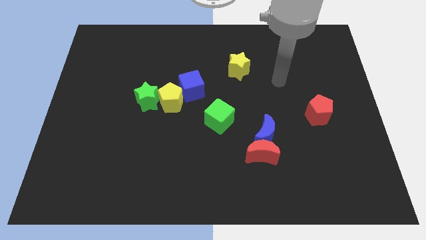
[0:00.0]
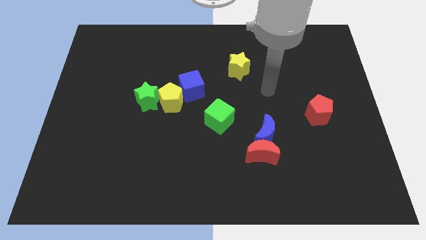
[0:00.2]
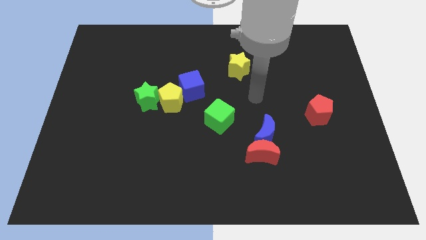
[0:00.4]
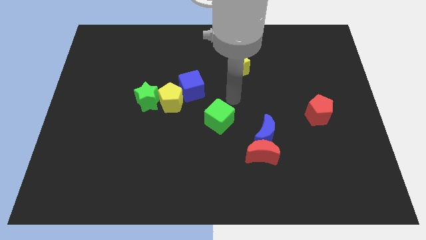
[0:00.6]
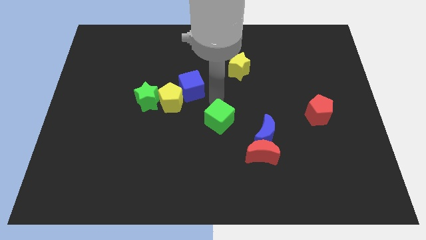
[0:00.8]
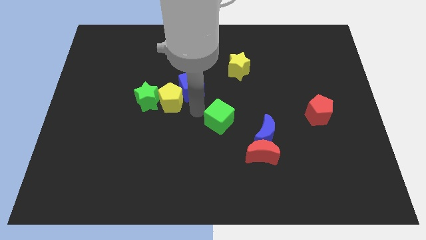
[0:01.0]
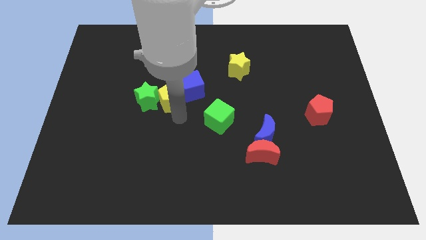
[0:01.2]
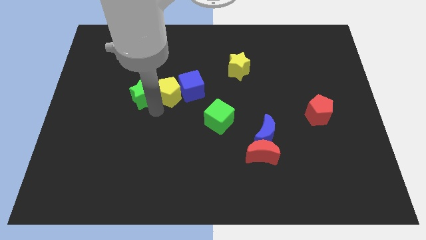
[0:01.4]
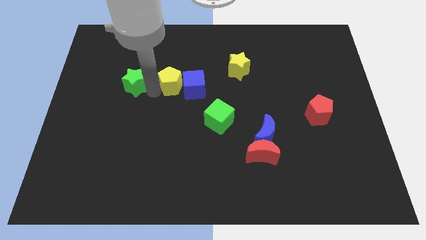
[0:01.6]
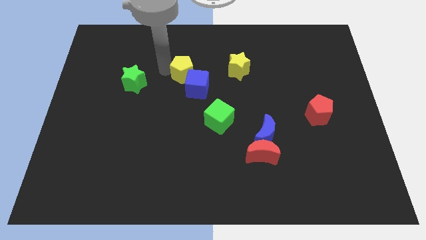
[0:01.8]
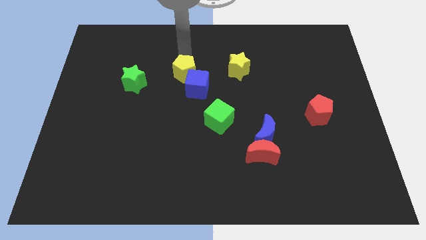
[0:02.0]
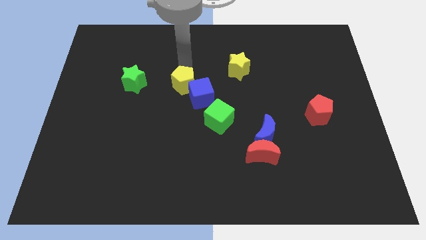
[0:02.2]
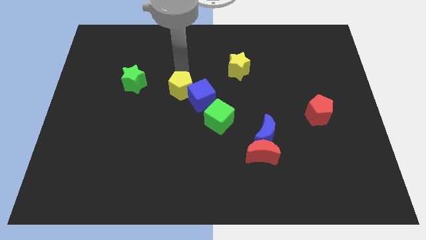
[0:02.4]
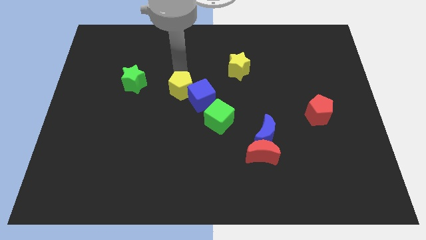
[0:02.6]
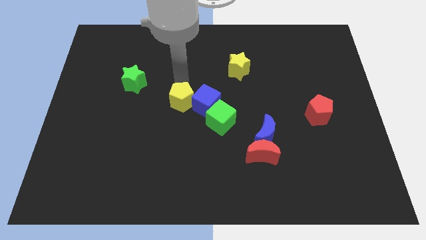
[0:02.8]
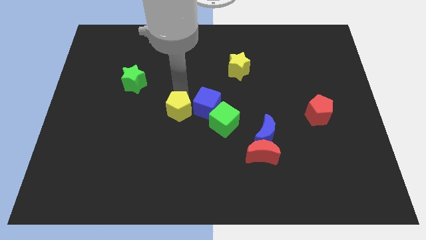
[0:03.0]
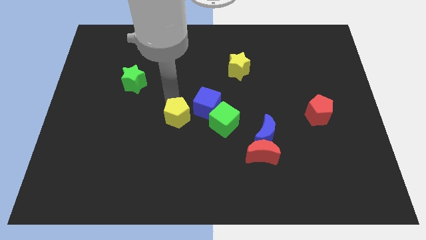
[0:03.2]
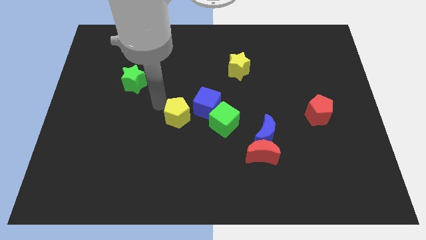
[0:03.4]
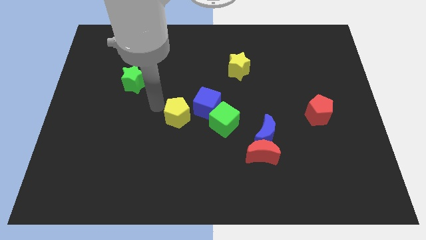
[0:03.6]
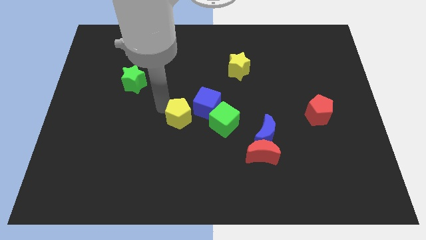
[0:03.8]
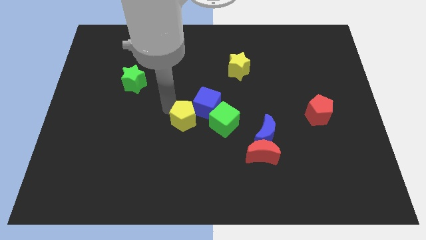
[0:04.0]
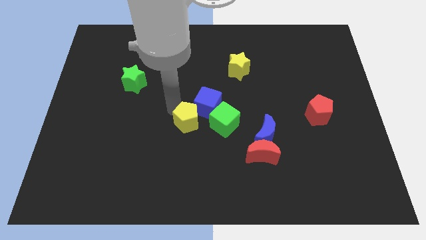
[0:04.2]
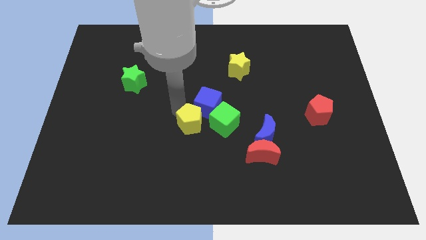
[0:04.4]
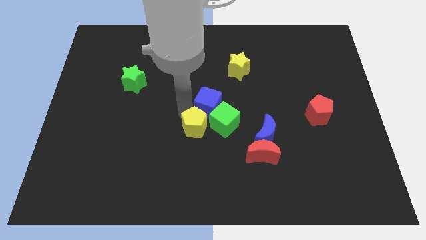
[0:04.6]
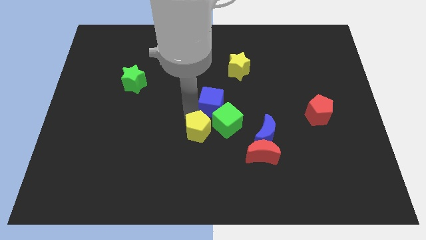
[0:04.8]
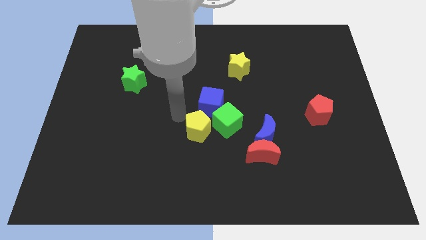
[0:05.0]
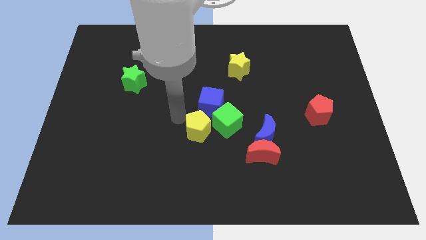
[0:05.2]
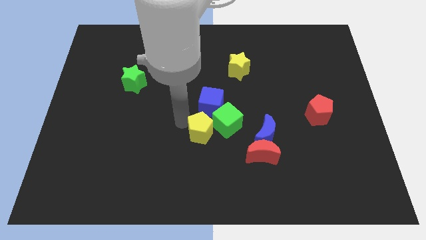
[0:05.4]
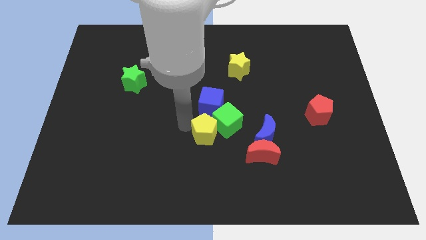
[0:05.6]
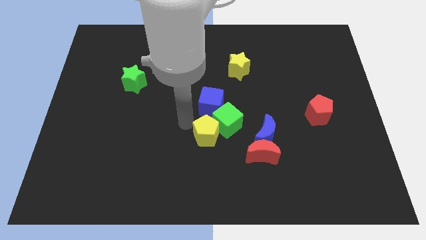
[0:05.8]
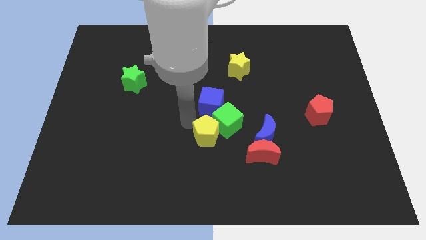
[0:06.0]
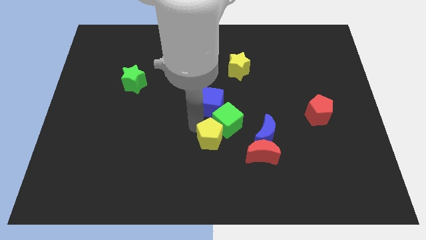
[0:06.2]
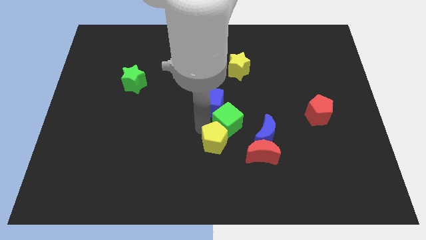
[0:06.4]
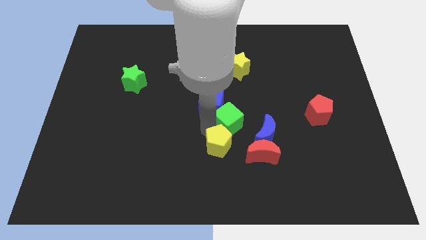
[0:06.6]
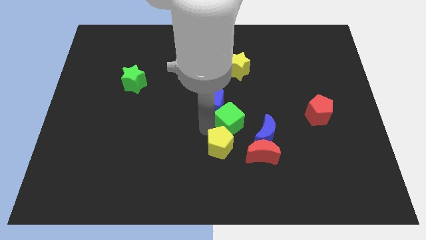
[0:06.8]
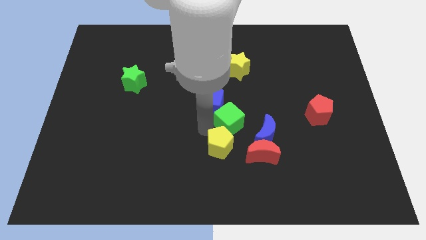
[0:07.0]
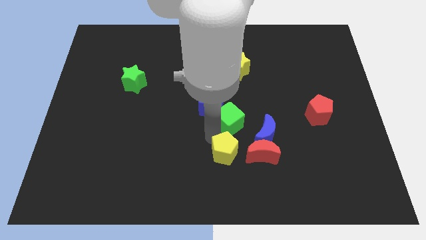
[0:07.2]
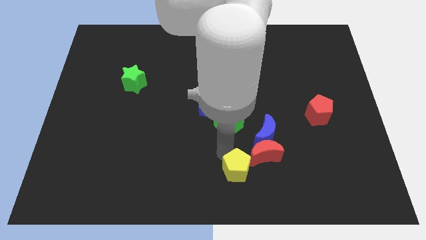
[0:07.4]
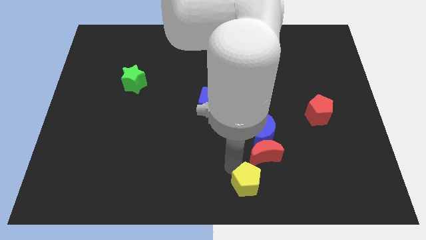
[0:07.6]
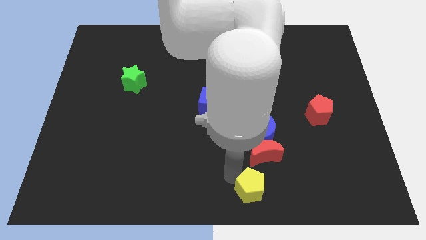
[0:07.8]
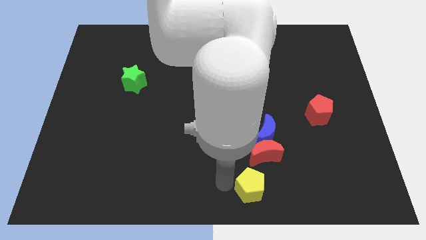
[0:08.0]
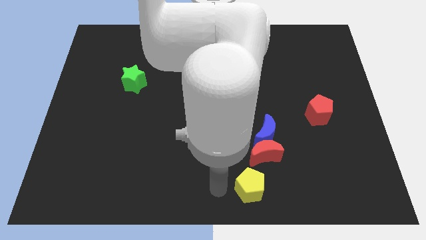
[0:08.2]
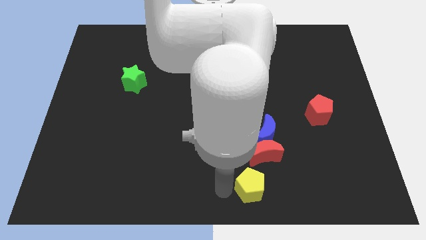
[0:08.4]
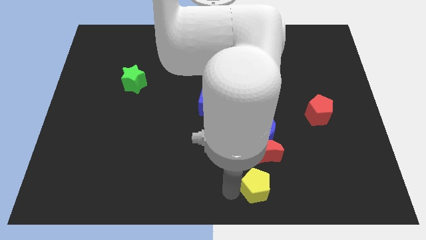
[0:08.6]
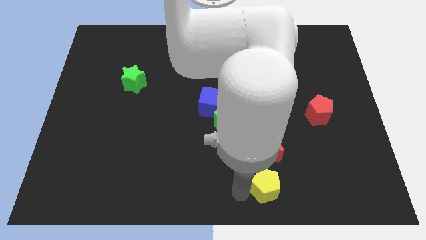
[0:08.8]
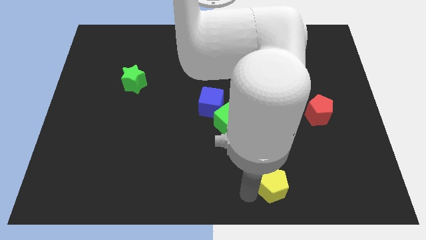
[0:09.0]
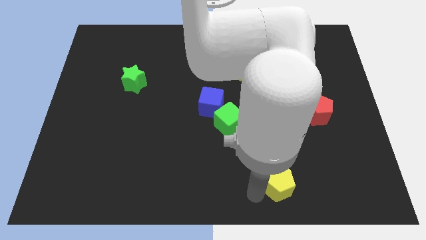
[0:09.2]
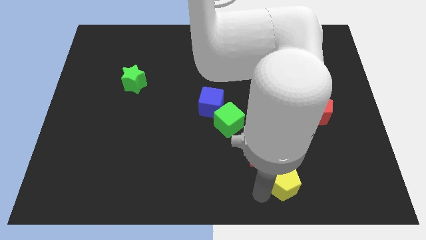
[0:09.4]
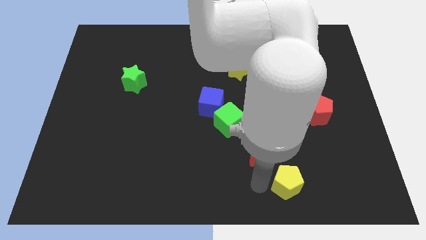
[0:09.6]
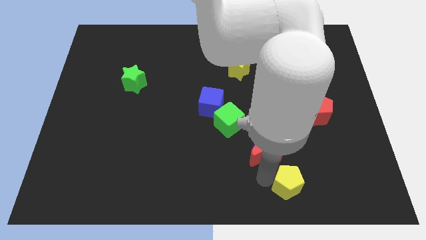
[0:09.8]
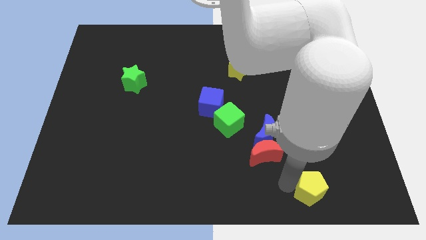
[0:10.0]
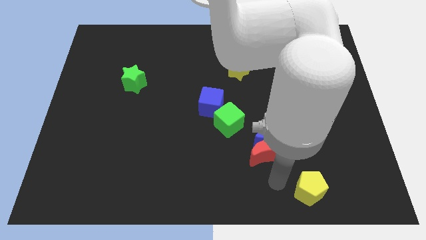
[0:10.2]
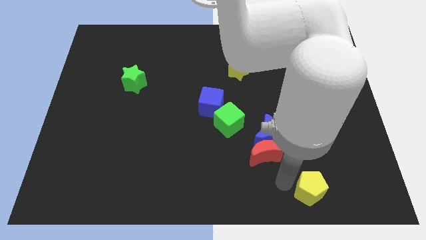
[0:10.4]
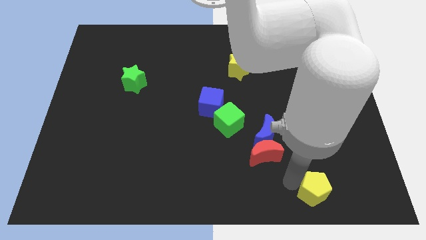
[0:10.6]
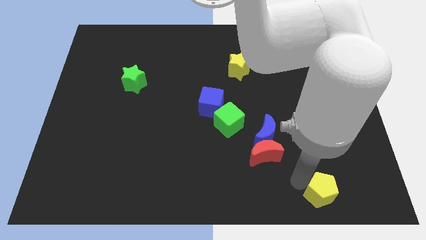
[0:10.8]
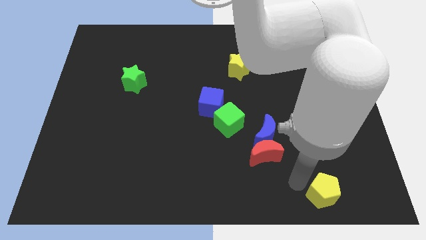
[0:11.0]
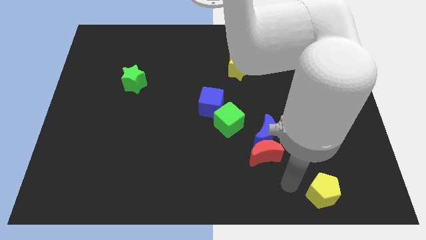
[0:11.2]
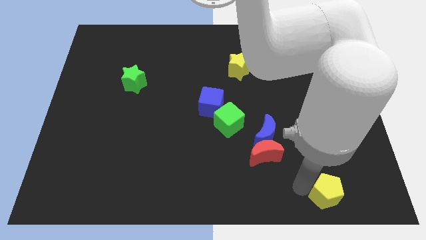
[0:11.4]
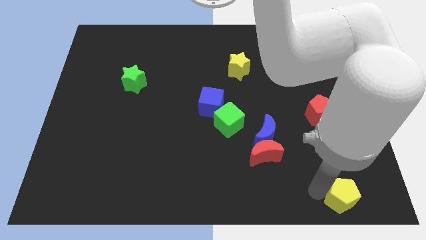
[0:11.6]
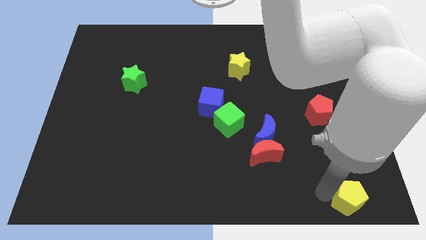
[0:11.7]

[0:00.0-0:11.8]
push the yellow pentagon to the bottom right

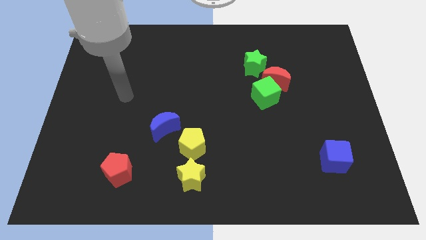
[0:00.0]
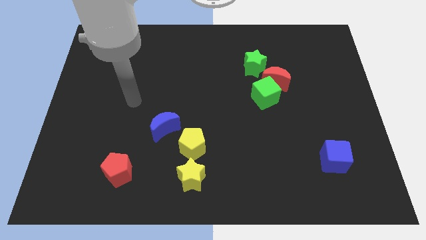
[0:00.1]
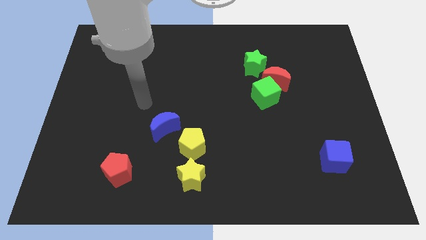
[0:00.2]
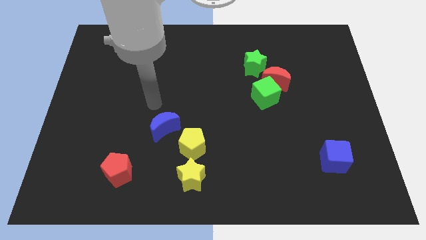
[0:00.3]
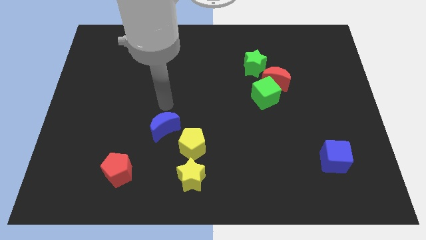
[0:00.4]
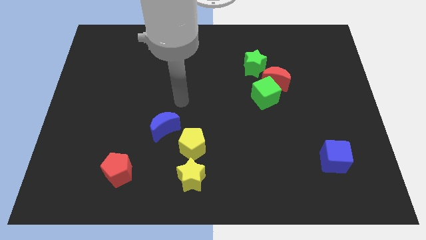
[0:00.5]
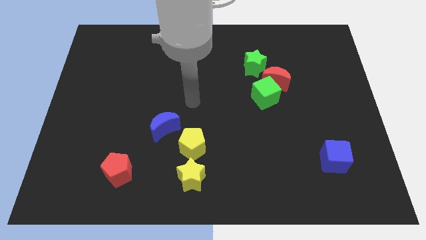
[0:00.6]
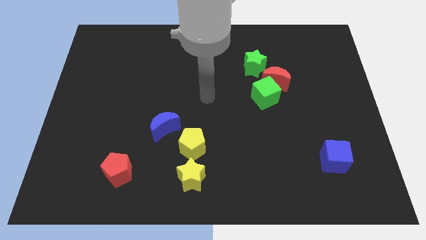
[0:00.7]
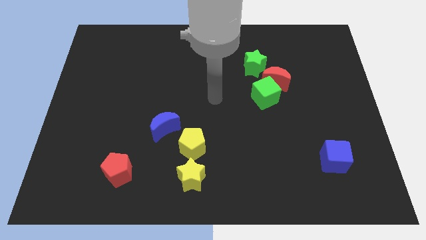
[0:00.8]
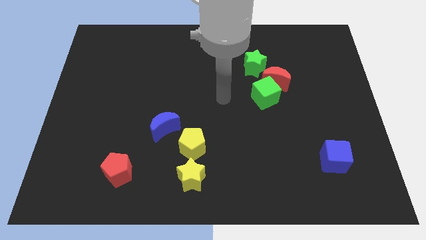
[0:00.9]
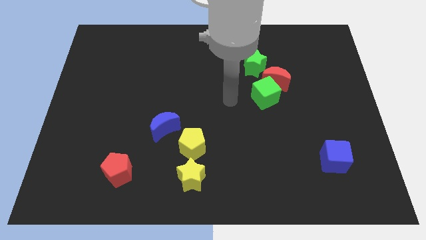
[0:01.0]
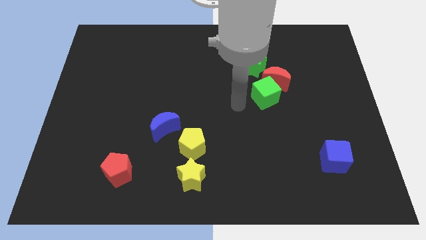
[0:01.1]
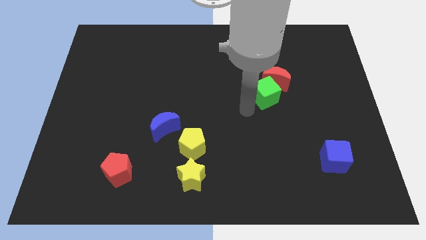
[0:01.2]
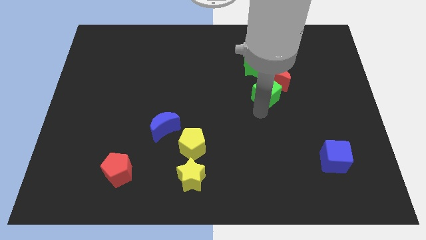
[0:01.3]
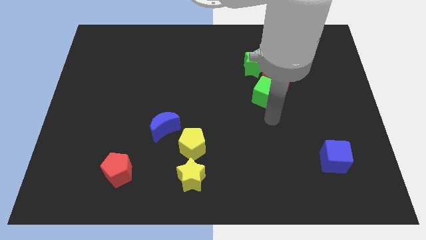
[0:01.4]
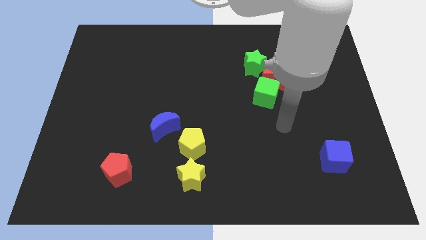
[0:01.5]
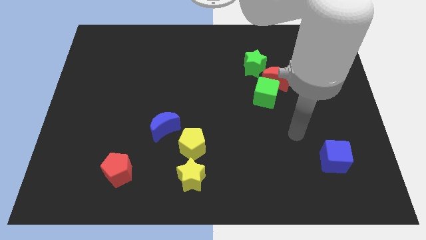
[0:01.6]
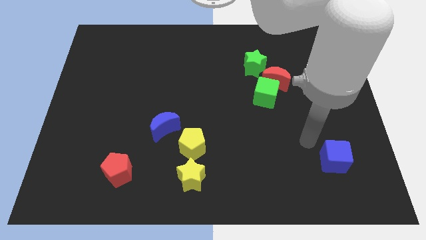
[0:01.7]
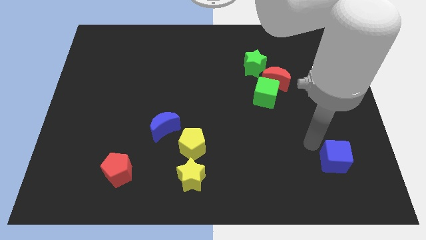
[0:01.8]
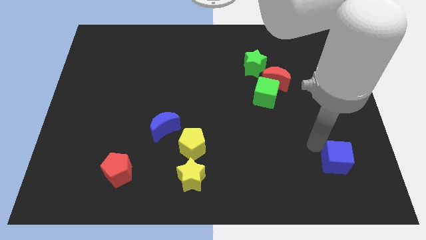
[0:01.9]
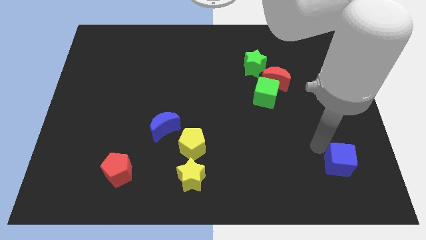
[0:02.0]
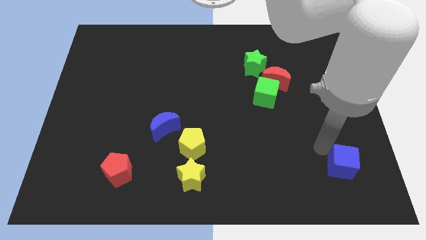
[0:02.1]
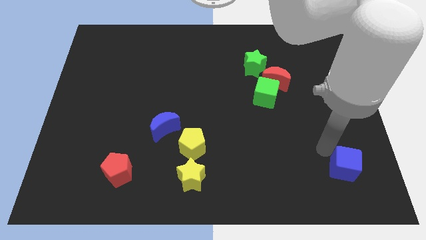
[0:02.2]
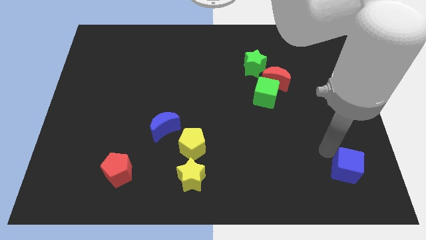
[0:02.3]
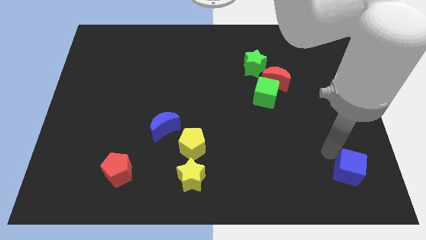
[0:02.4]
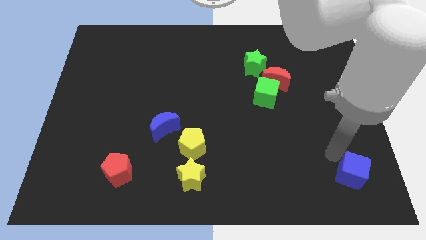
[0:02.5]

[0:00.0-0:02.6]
put the blue cube to the bottom right of the board
